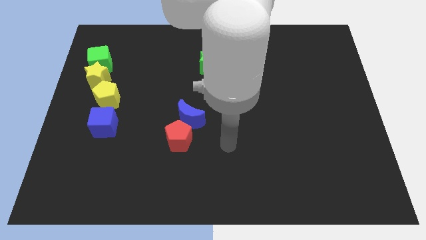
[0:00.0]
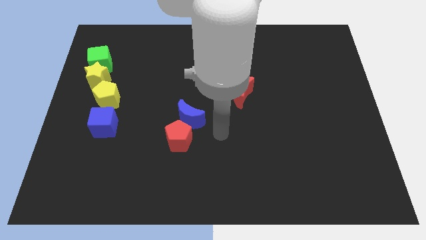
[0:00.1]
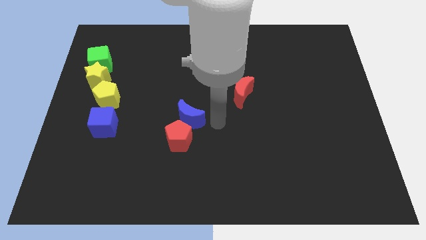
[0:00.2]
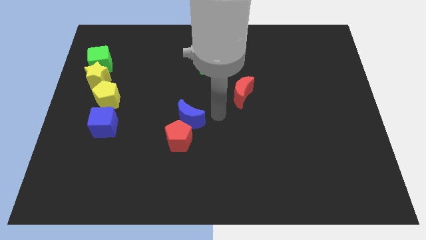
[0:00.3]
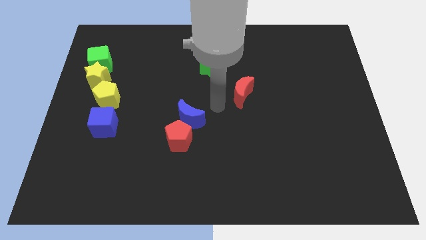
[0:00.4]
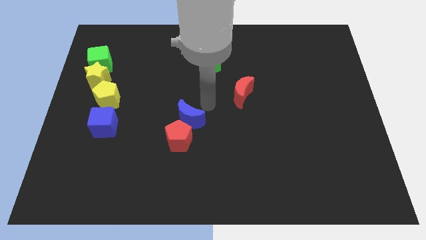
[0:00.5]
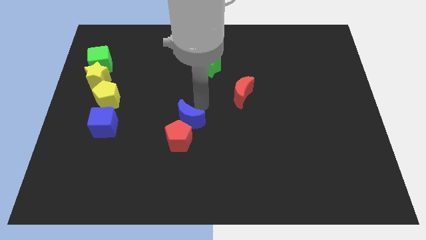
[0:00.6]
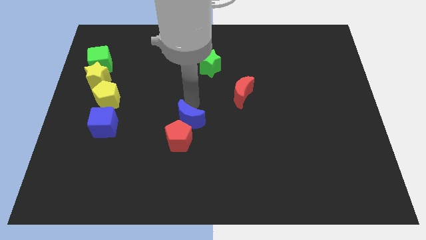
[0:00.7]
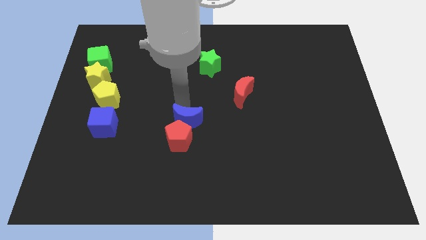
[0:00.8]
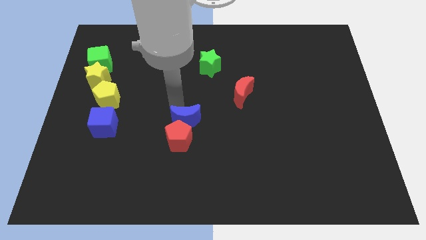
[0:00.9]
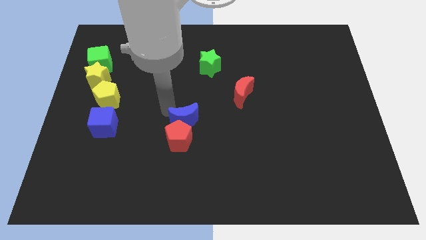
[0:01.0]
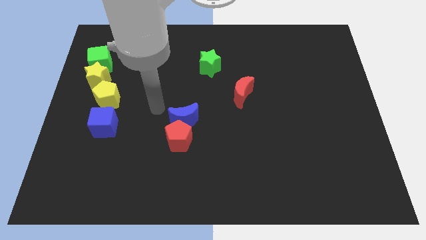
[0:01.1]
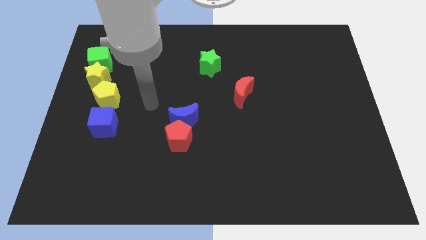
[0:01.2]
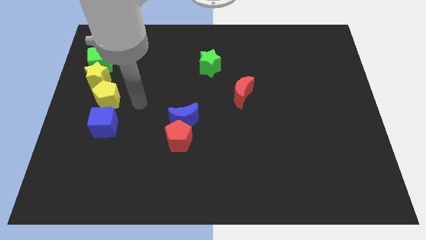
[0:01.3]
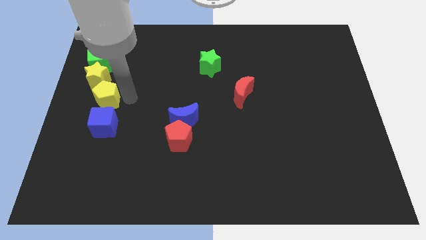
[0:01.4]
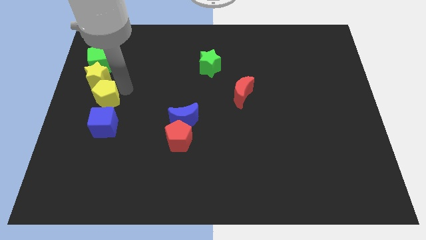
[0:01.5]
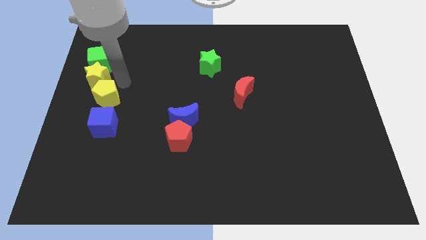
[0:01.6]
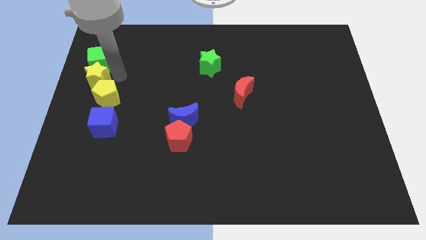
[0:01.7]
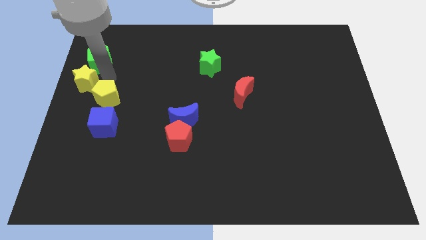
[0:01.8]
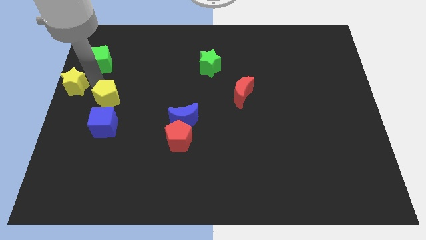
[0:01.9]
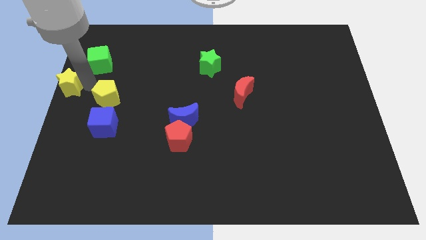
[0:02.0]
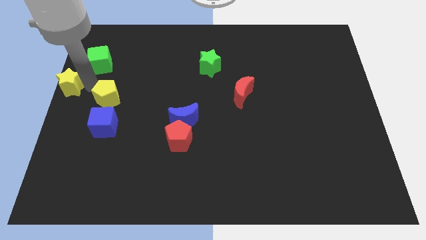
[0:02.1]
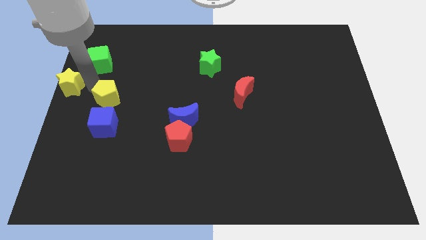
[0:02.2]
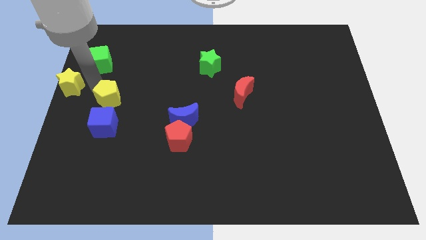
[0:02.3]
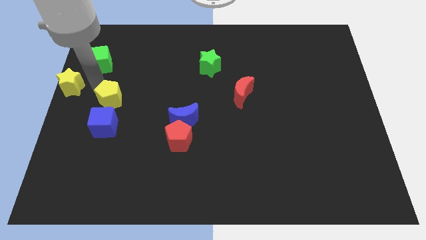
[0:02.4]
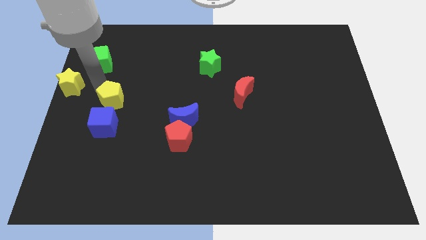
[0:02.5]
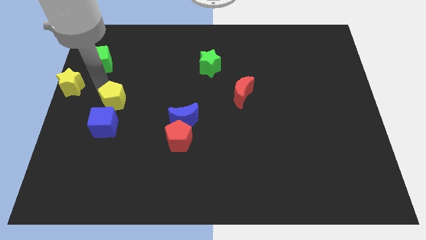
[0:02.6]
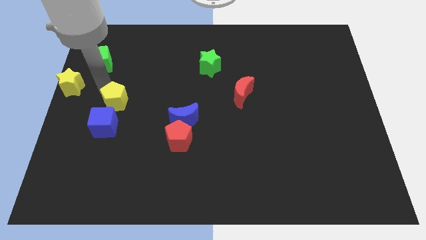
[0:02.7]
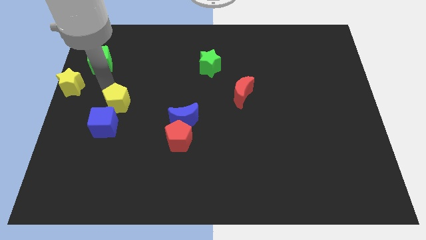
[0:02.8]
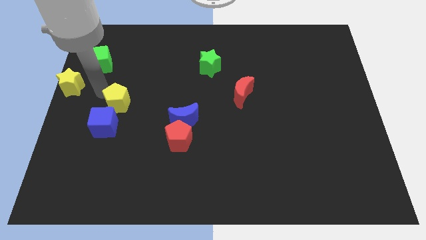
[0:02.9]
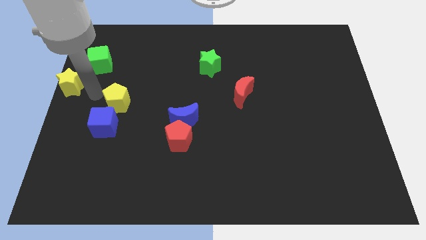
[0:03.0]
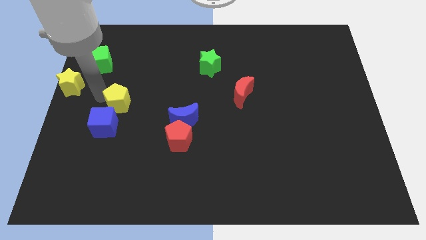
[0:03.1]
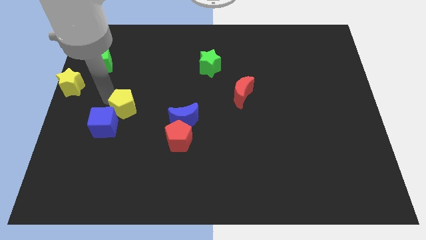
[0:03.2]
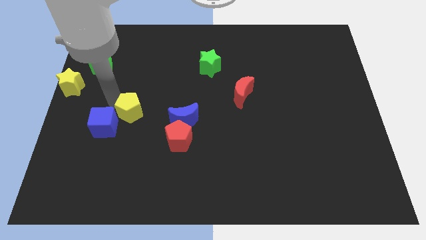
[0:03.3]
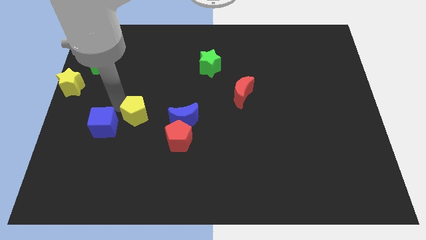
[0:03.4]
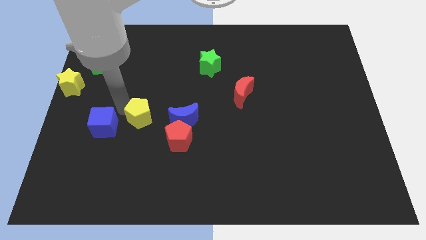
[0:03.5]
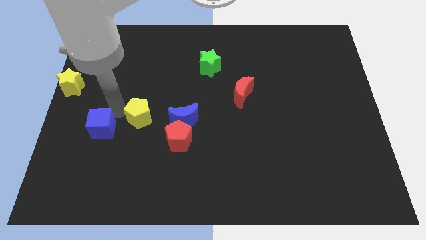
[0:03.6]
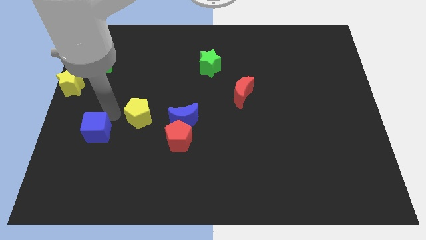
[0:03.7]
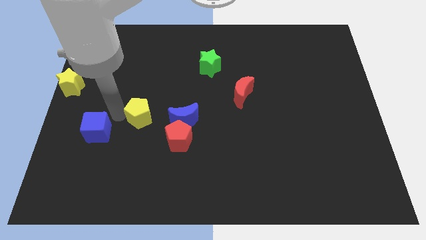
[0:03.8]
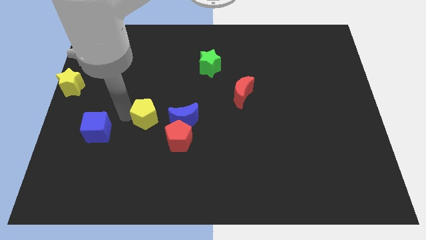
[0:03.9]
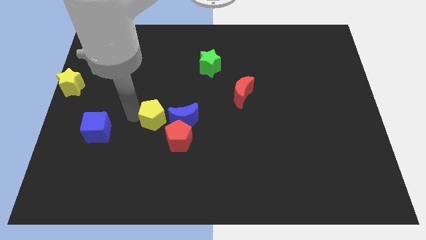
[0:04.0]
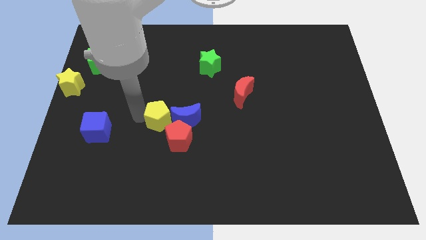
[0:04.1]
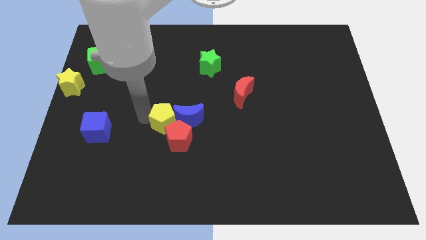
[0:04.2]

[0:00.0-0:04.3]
move the yellow pentagon close to the blue moon

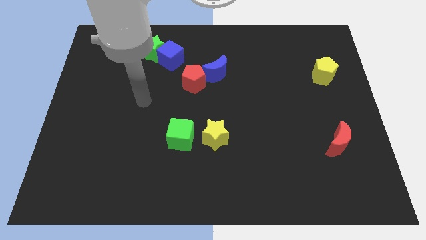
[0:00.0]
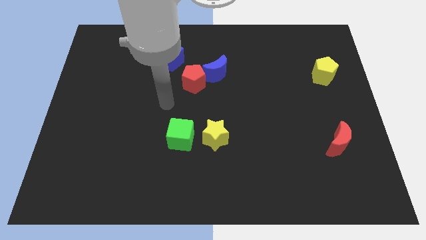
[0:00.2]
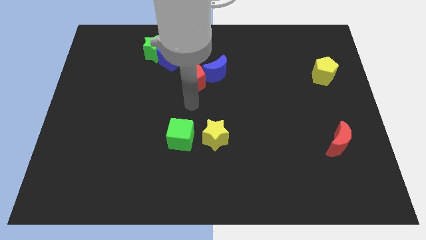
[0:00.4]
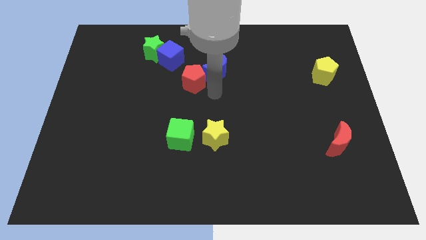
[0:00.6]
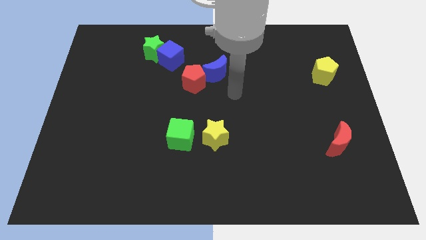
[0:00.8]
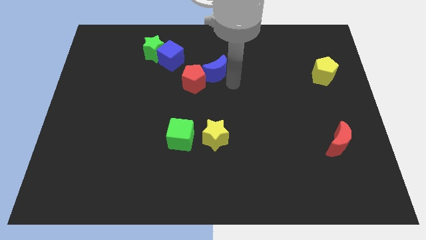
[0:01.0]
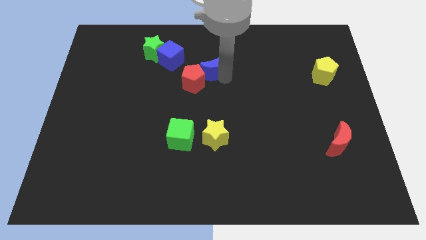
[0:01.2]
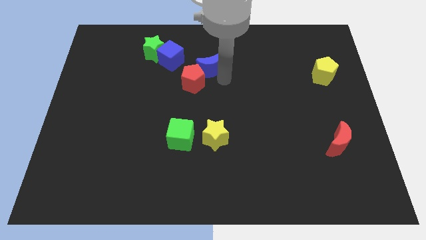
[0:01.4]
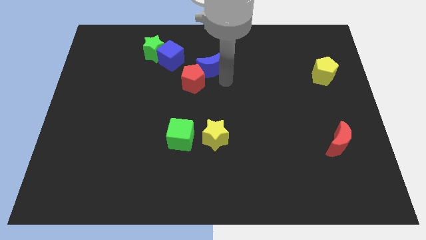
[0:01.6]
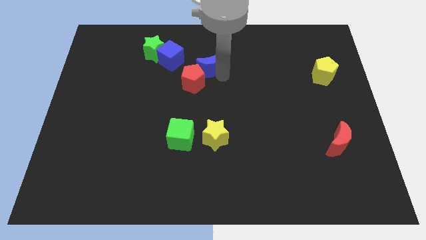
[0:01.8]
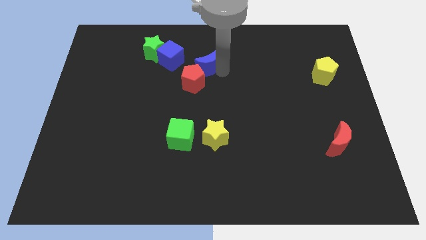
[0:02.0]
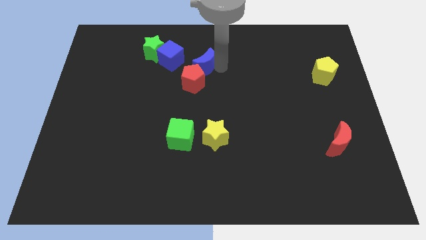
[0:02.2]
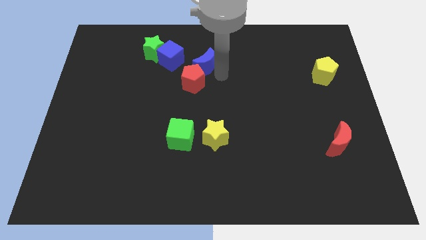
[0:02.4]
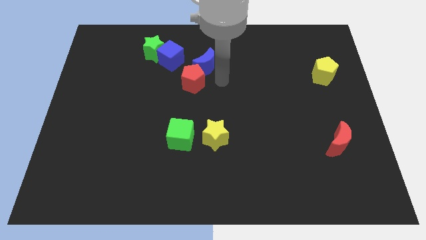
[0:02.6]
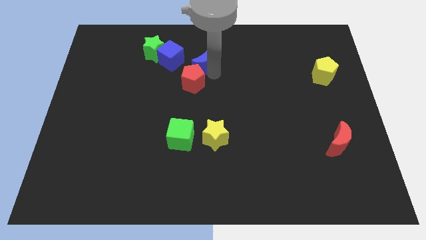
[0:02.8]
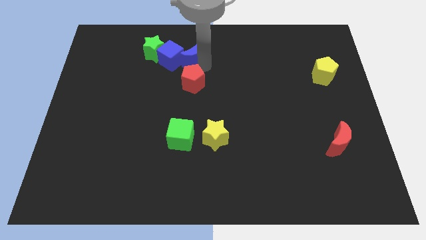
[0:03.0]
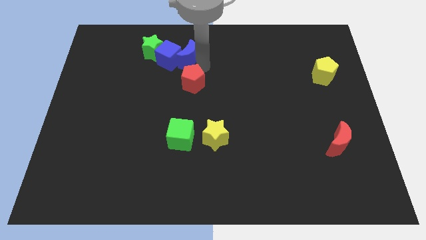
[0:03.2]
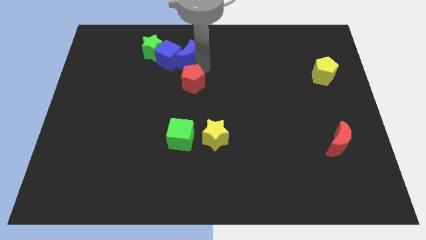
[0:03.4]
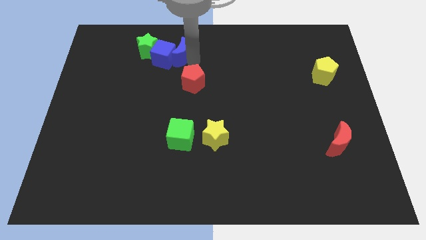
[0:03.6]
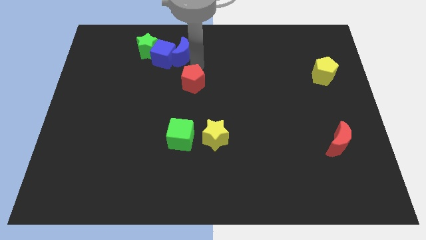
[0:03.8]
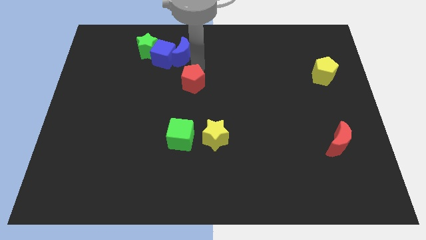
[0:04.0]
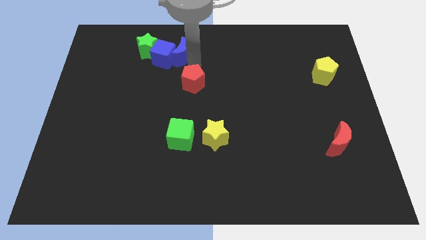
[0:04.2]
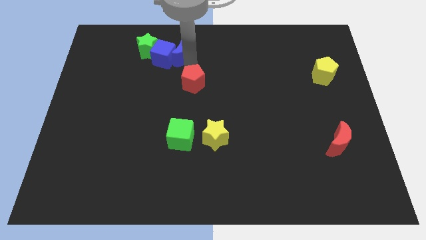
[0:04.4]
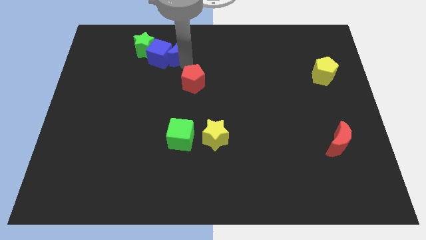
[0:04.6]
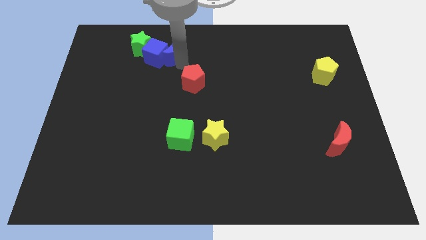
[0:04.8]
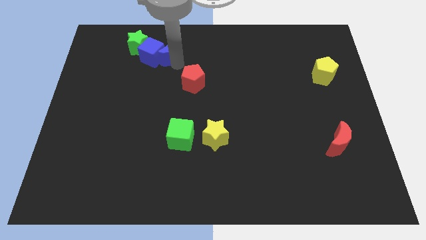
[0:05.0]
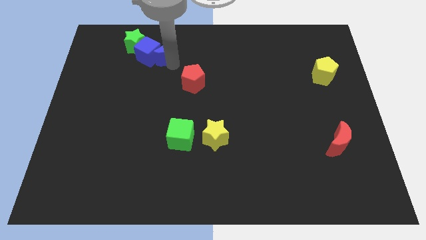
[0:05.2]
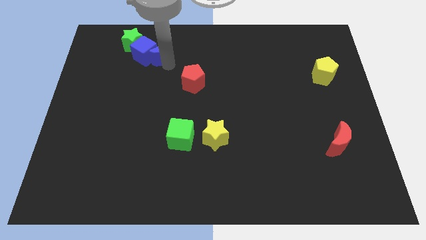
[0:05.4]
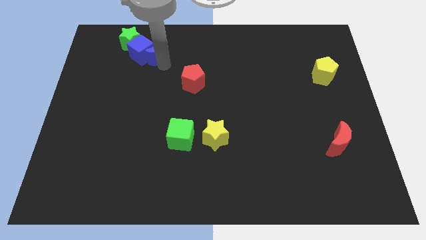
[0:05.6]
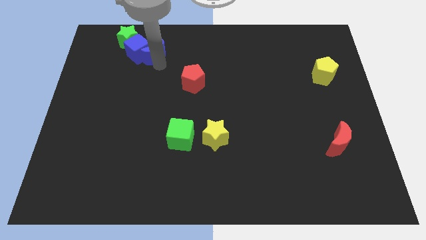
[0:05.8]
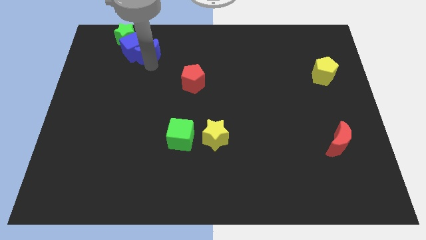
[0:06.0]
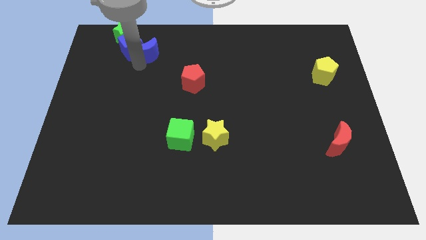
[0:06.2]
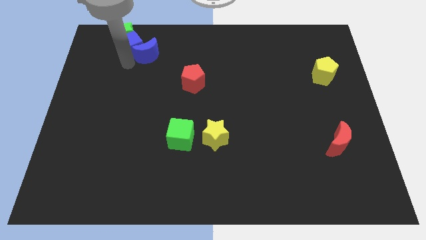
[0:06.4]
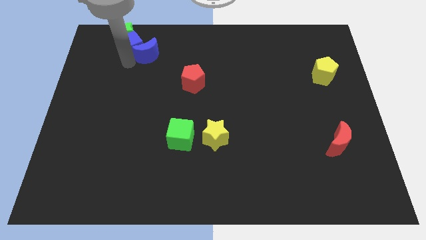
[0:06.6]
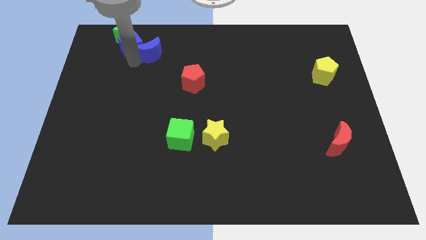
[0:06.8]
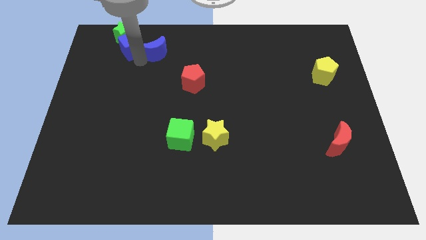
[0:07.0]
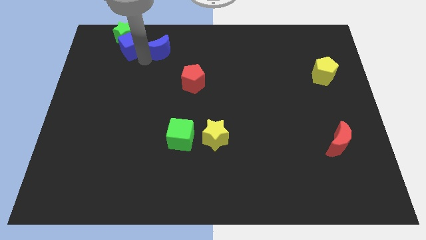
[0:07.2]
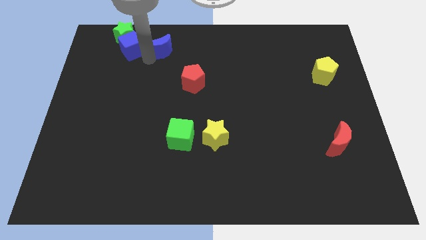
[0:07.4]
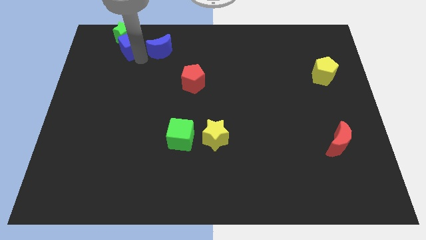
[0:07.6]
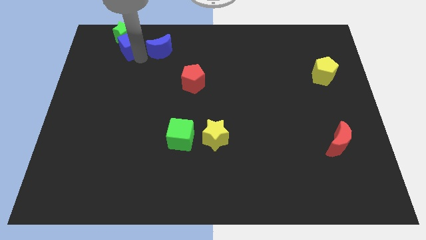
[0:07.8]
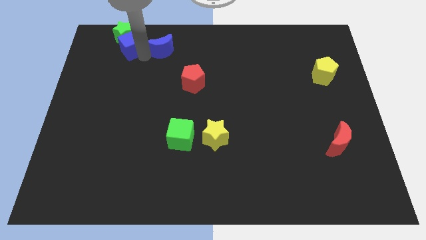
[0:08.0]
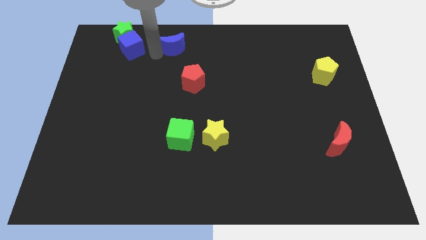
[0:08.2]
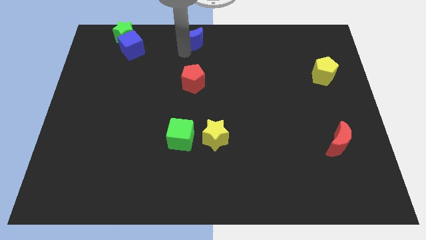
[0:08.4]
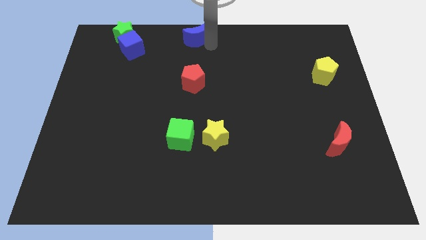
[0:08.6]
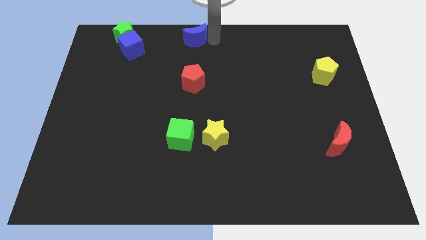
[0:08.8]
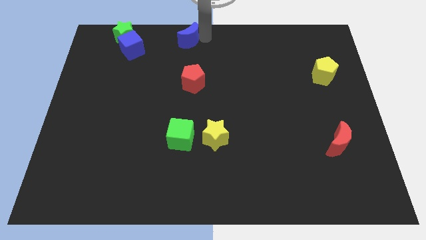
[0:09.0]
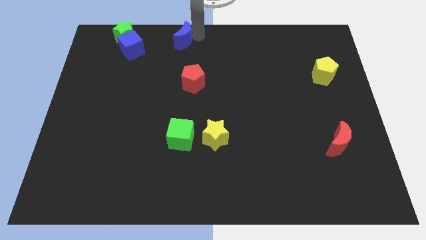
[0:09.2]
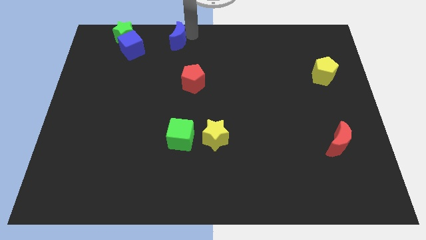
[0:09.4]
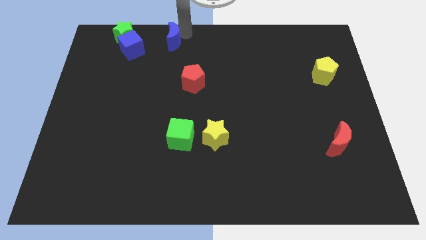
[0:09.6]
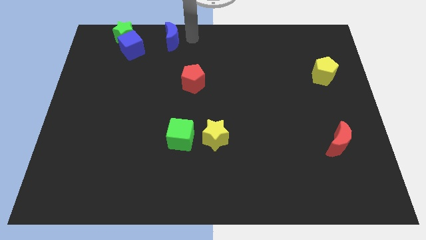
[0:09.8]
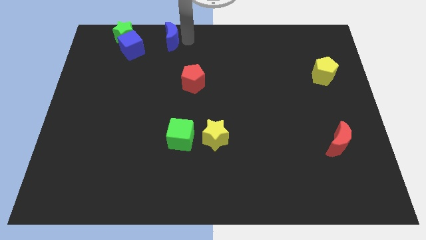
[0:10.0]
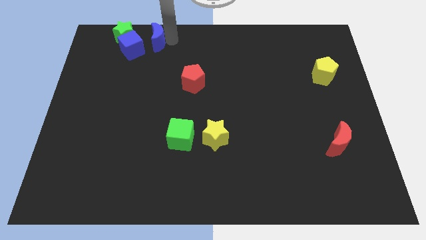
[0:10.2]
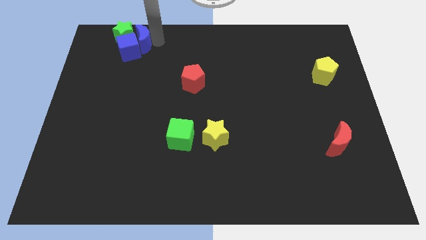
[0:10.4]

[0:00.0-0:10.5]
slide the blue moon to the green star
